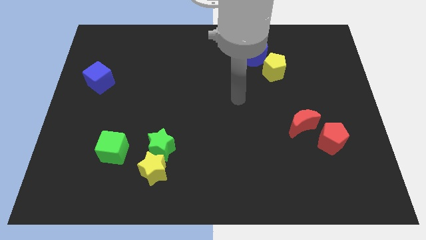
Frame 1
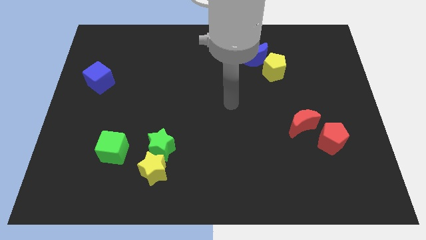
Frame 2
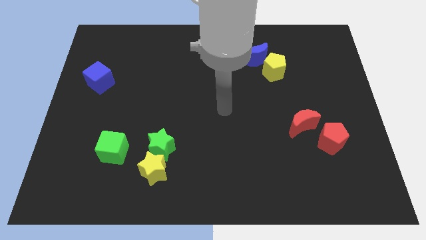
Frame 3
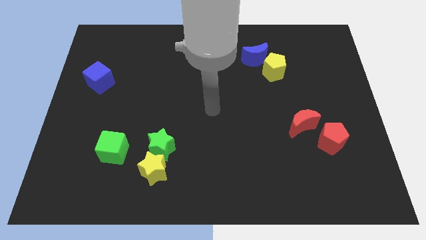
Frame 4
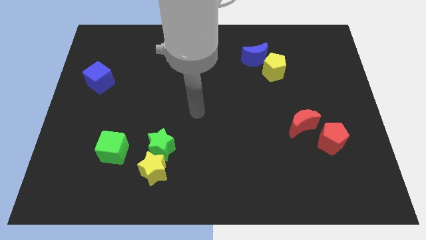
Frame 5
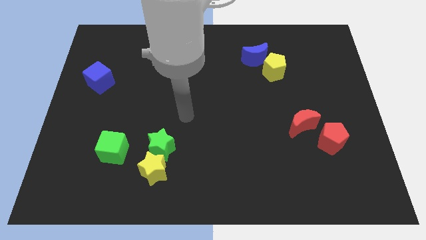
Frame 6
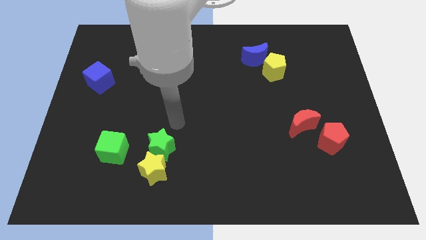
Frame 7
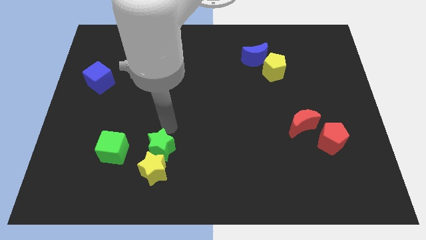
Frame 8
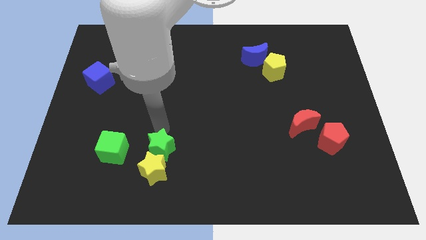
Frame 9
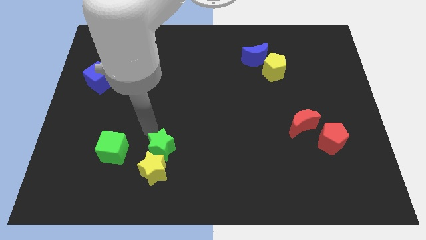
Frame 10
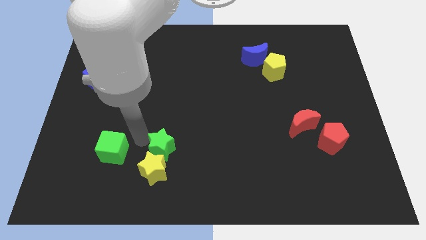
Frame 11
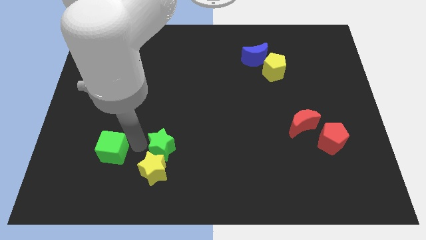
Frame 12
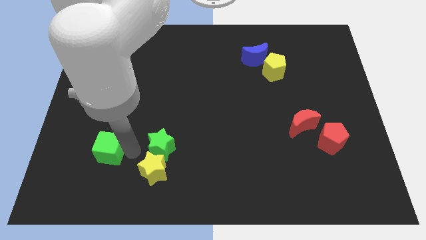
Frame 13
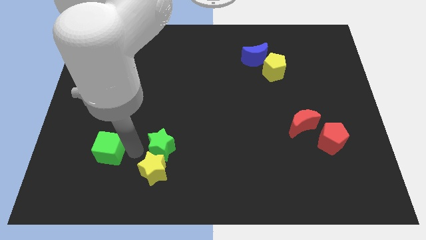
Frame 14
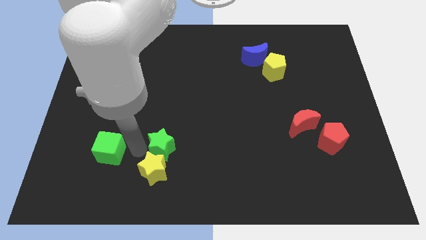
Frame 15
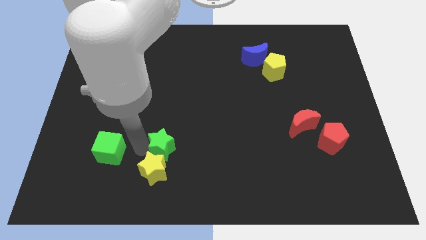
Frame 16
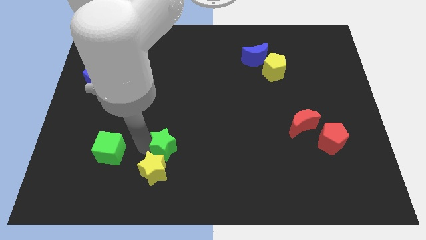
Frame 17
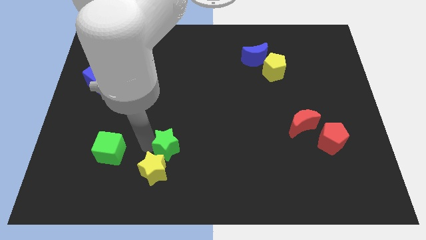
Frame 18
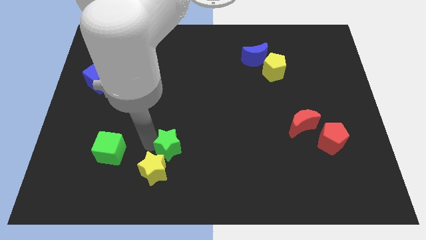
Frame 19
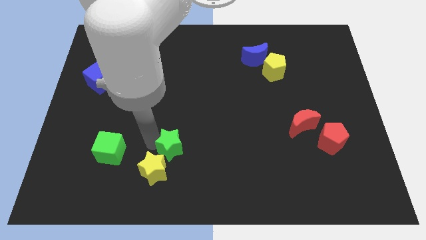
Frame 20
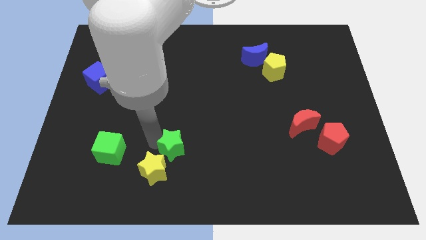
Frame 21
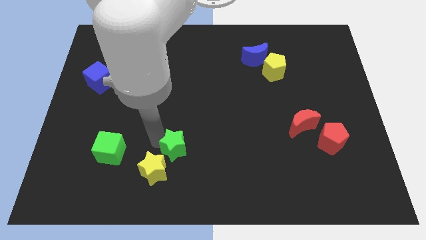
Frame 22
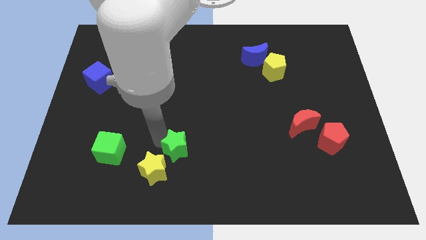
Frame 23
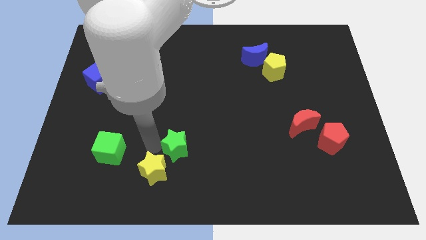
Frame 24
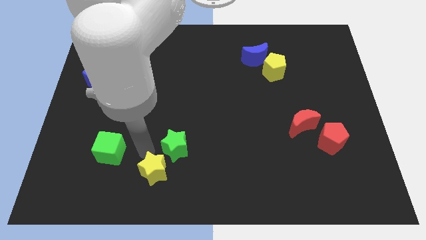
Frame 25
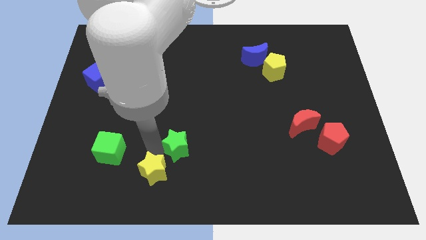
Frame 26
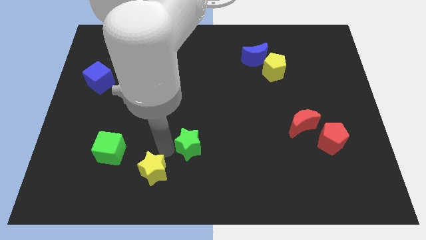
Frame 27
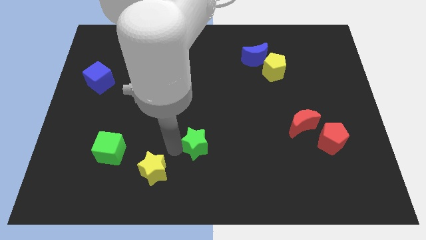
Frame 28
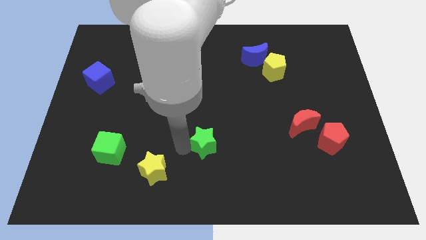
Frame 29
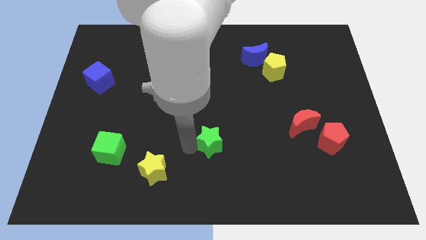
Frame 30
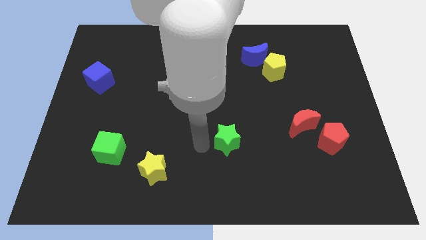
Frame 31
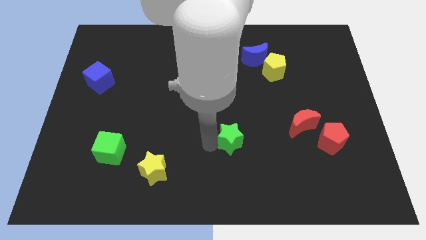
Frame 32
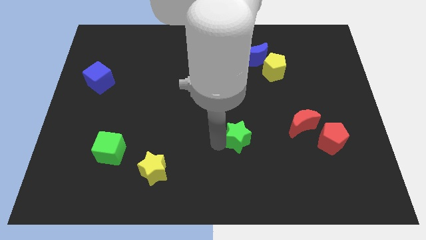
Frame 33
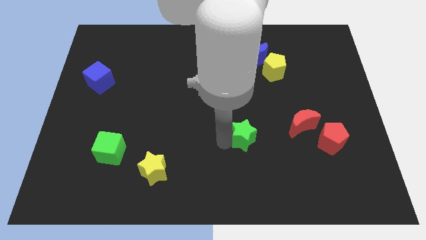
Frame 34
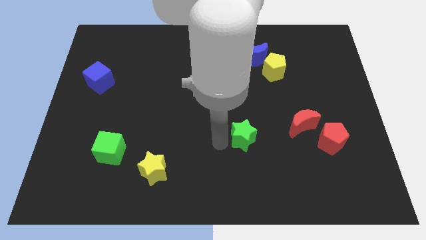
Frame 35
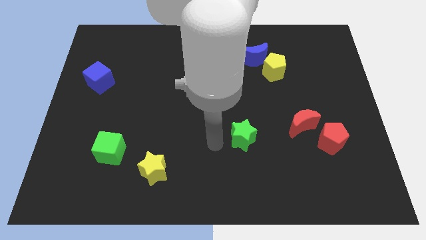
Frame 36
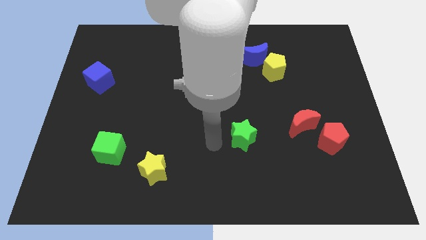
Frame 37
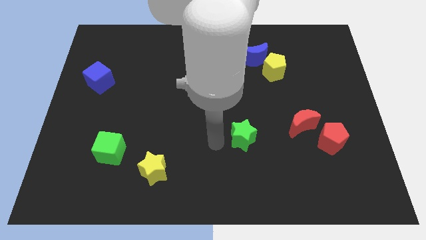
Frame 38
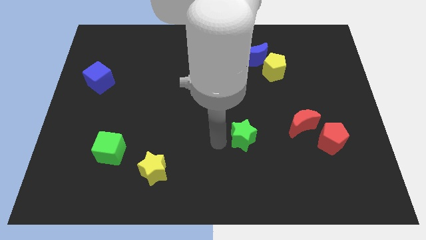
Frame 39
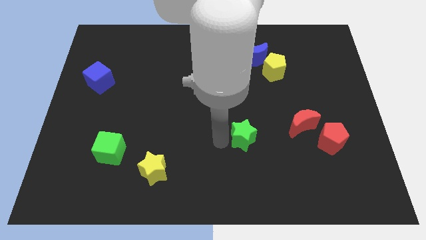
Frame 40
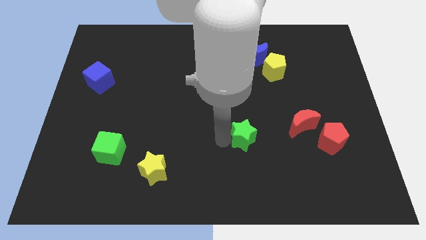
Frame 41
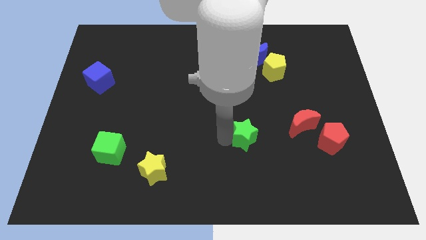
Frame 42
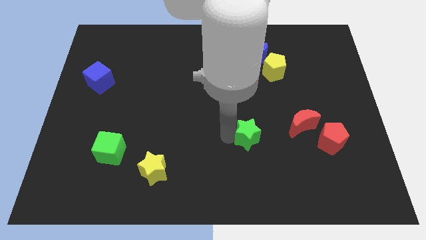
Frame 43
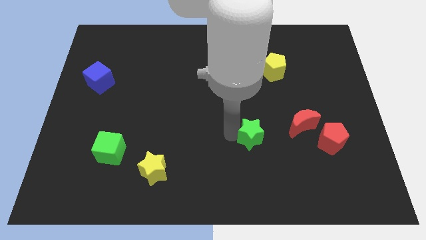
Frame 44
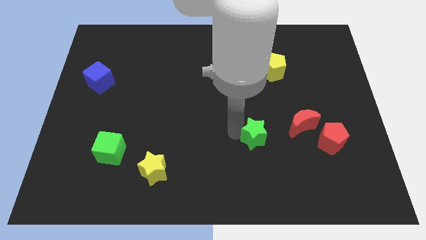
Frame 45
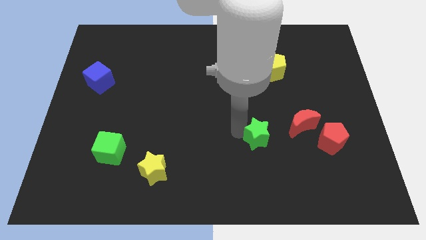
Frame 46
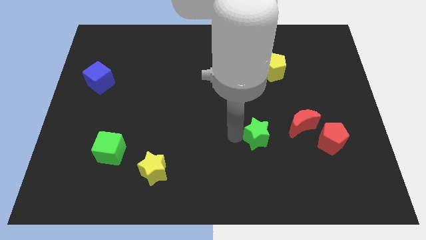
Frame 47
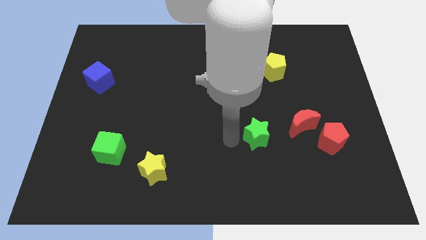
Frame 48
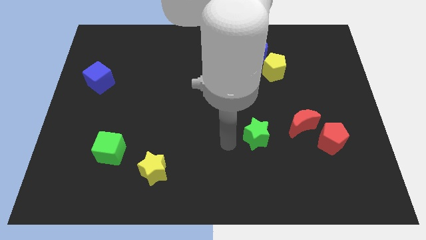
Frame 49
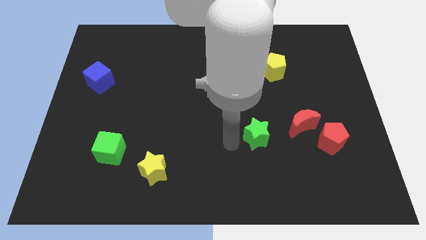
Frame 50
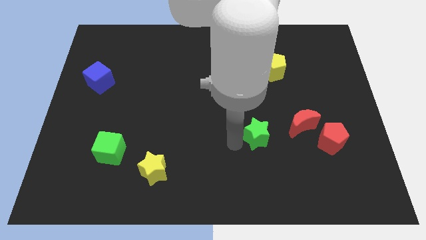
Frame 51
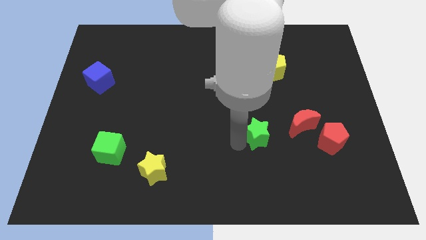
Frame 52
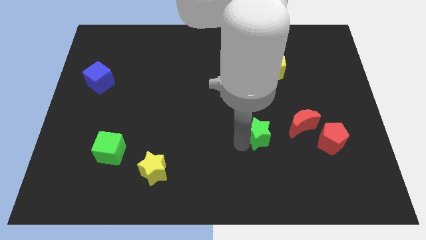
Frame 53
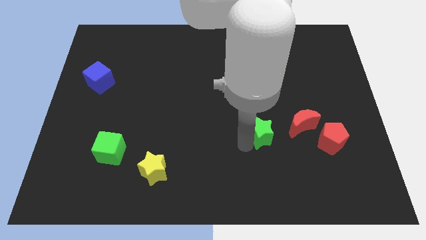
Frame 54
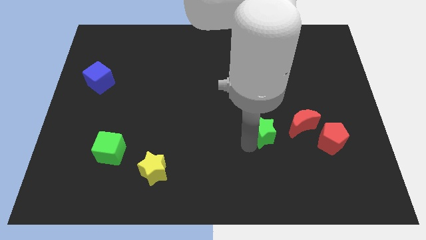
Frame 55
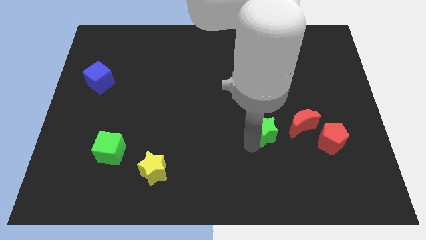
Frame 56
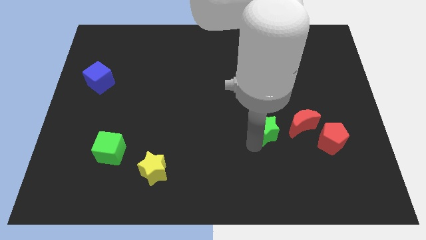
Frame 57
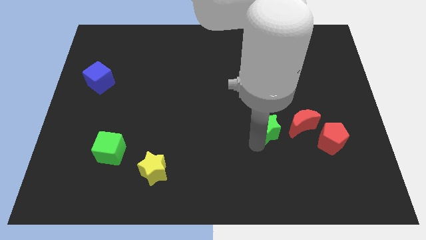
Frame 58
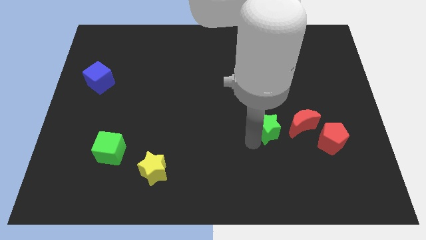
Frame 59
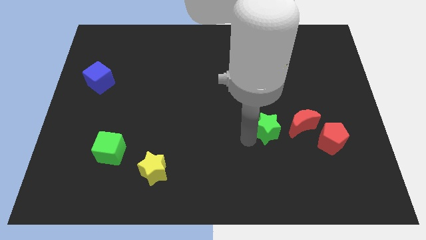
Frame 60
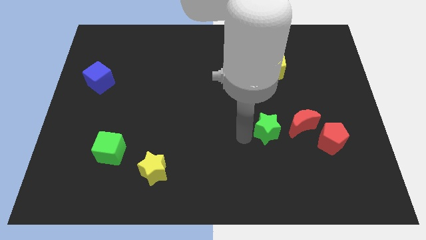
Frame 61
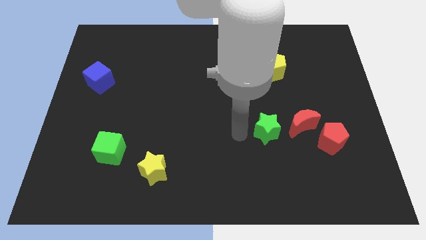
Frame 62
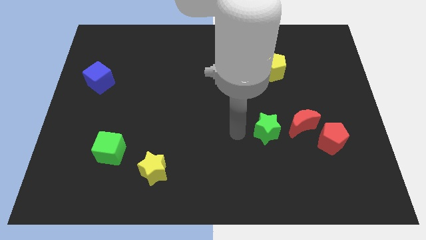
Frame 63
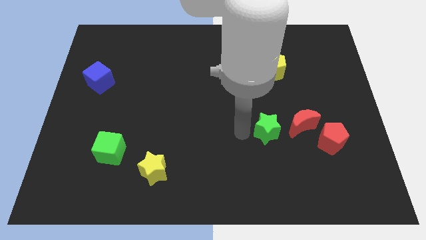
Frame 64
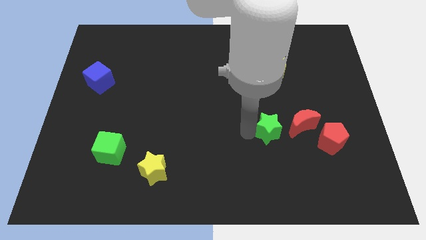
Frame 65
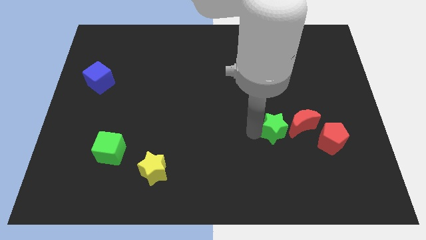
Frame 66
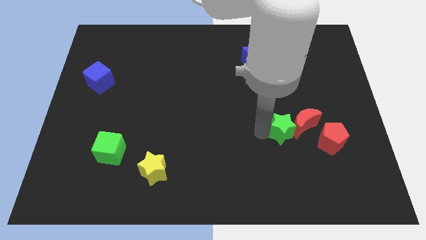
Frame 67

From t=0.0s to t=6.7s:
slide the green star towards the red moon

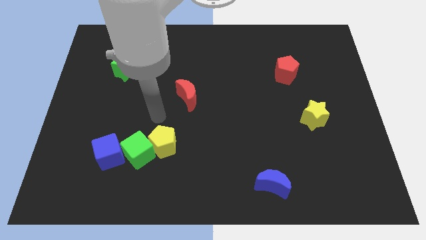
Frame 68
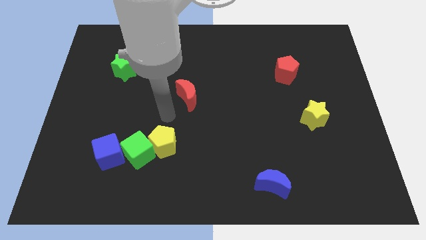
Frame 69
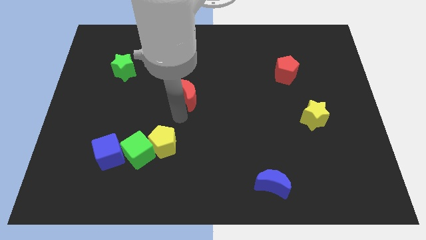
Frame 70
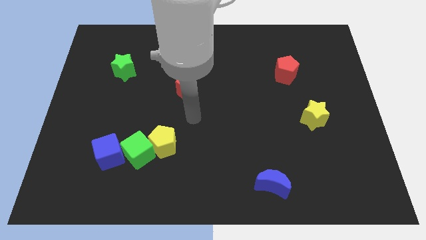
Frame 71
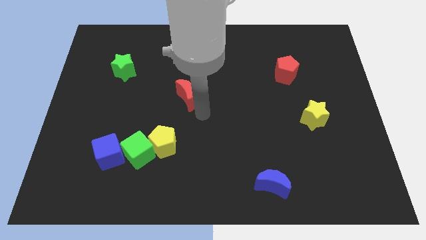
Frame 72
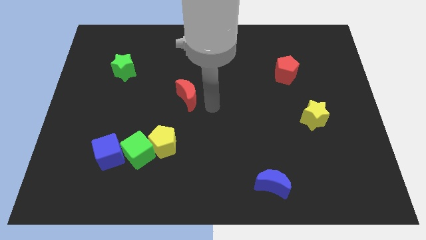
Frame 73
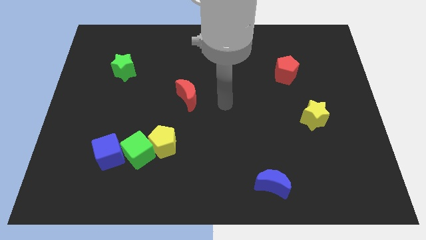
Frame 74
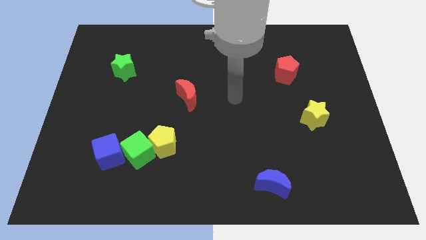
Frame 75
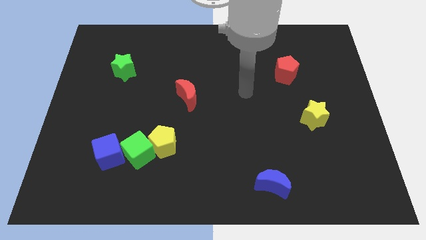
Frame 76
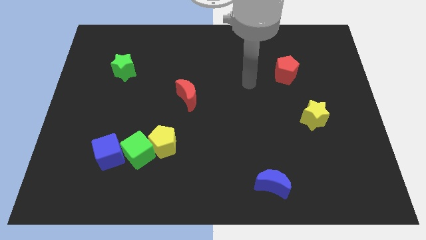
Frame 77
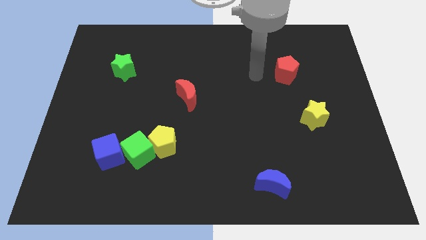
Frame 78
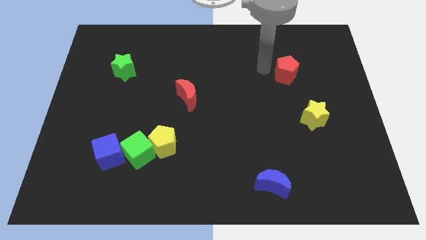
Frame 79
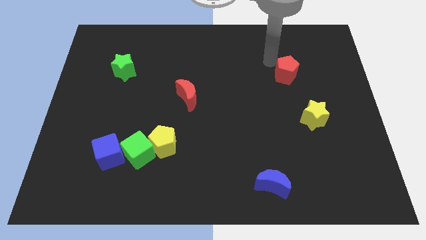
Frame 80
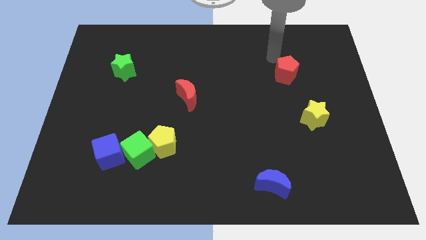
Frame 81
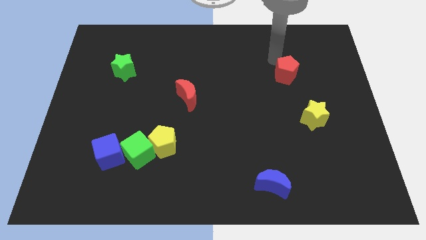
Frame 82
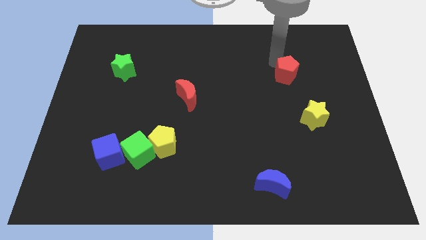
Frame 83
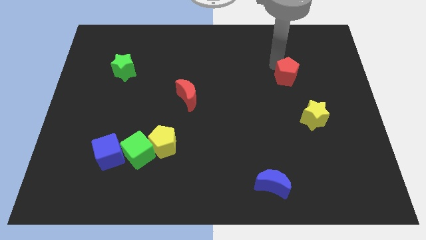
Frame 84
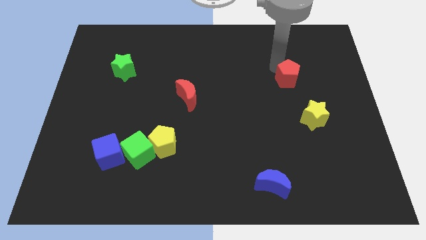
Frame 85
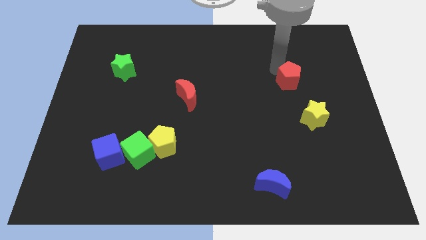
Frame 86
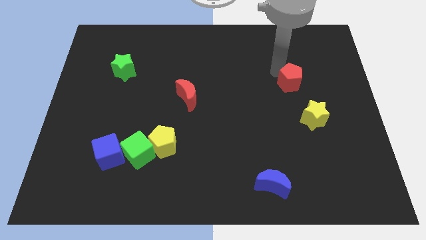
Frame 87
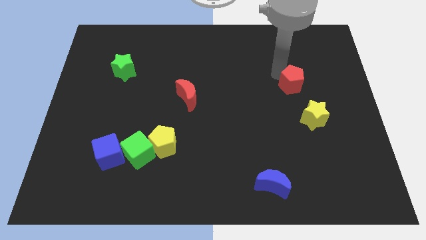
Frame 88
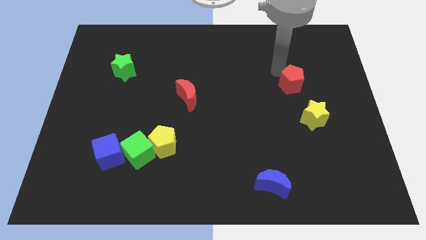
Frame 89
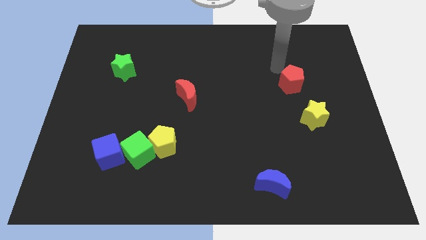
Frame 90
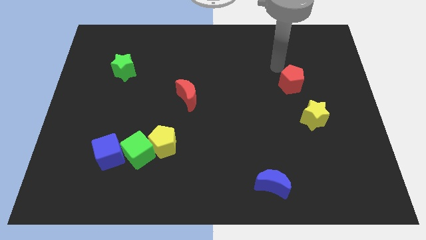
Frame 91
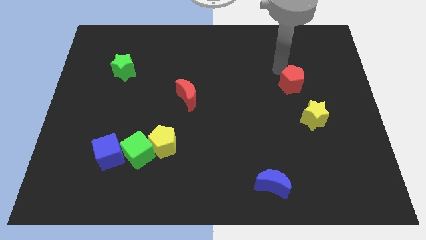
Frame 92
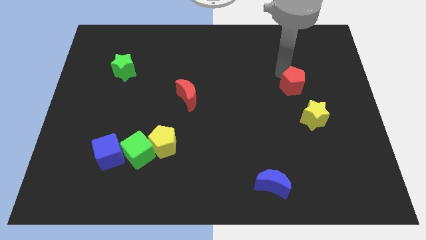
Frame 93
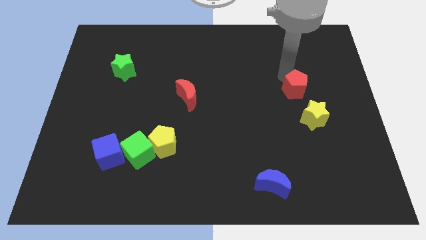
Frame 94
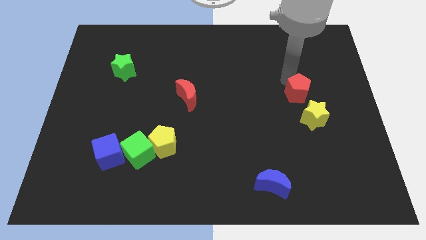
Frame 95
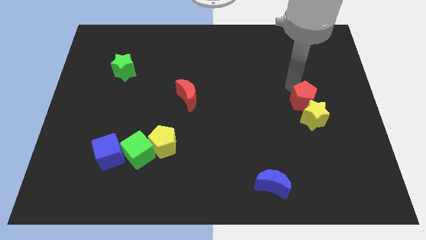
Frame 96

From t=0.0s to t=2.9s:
slide the red pentagon next to the yellow star
